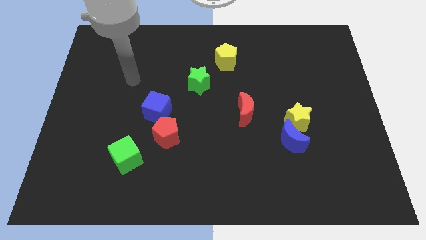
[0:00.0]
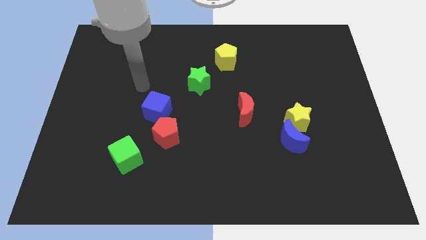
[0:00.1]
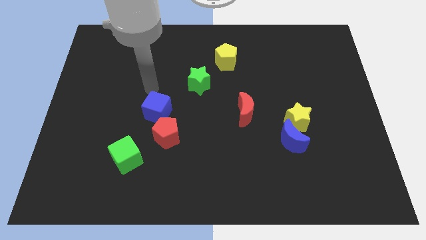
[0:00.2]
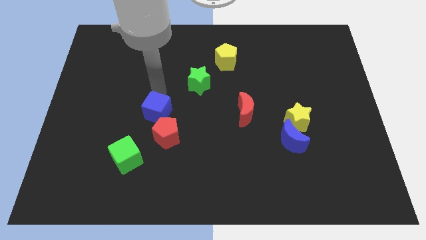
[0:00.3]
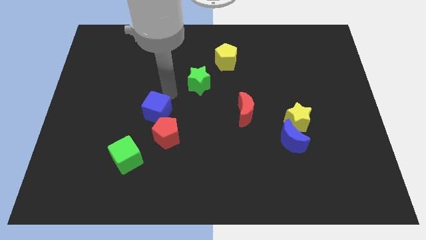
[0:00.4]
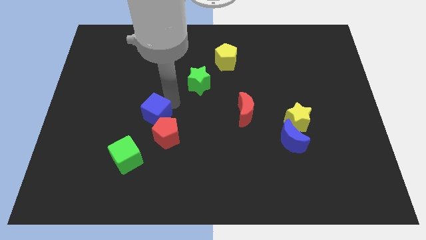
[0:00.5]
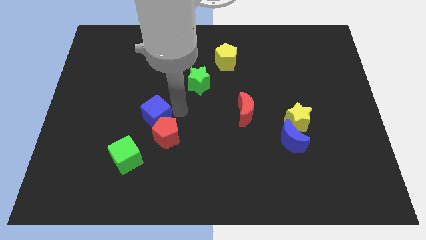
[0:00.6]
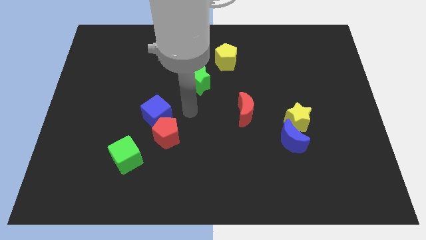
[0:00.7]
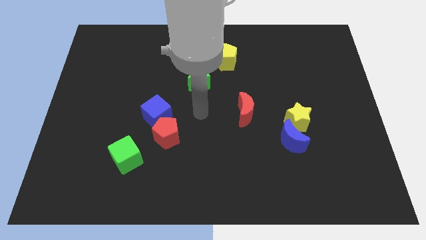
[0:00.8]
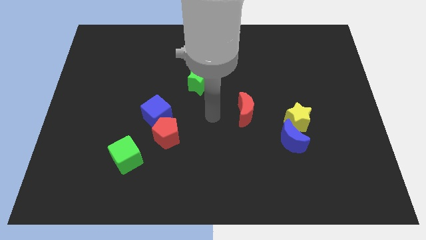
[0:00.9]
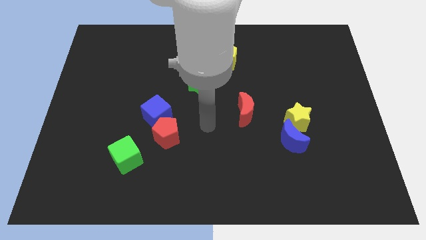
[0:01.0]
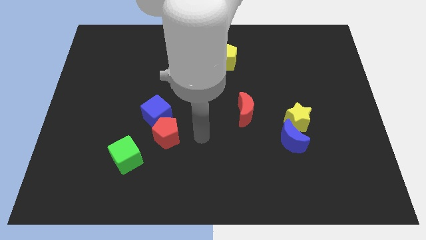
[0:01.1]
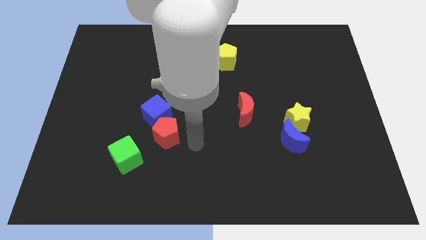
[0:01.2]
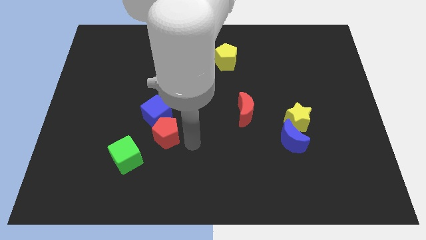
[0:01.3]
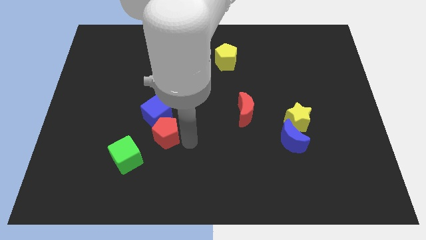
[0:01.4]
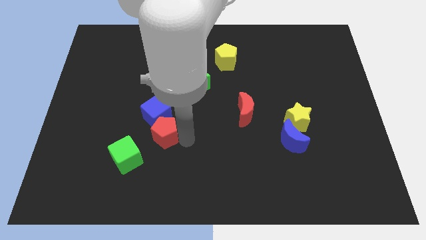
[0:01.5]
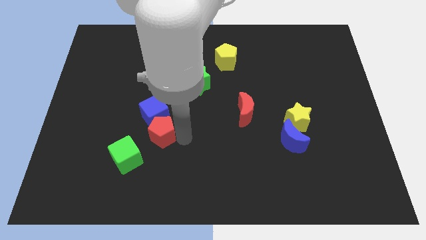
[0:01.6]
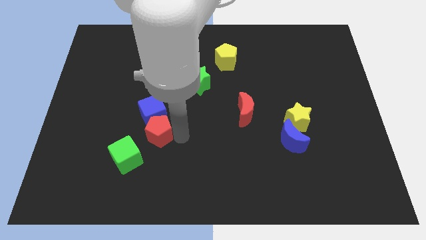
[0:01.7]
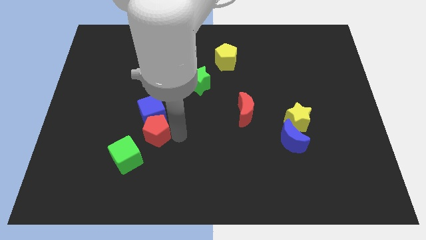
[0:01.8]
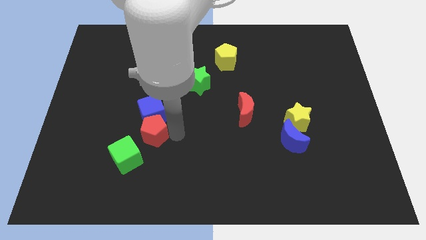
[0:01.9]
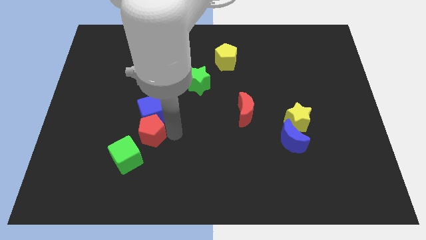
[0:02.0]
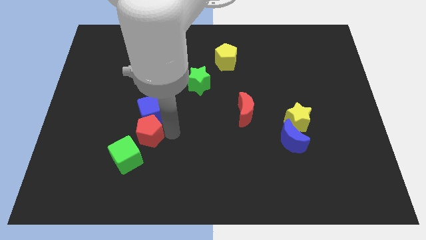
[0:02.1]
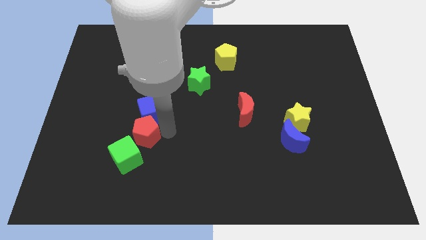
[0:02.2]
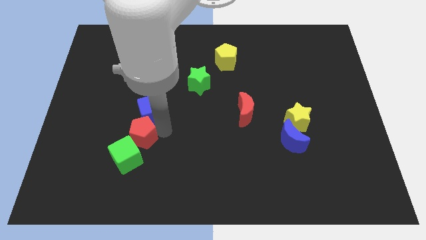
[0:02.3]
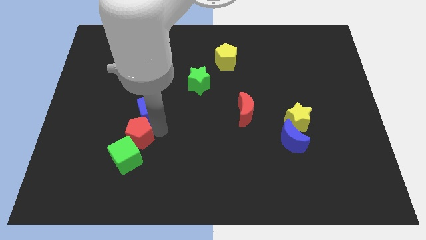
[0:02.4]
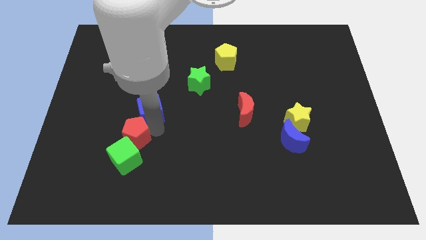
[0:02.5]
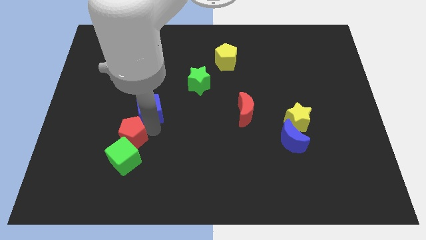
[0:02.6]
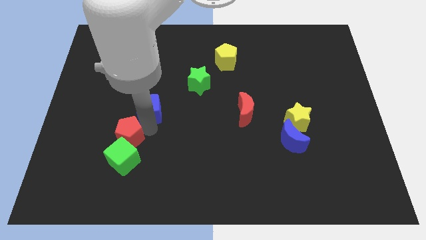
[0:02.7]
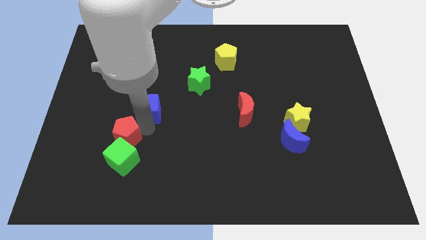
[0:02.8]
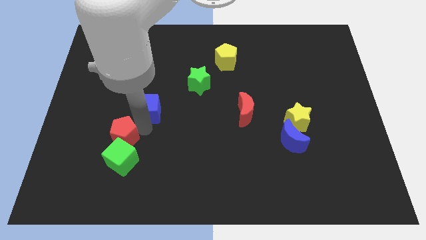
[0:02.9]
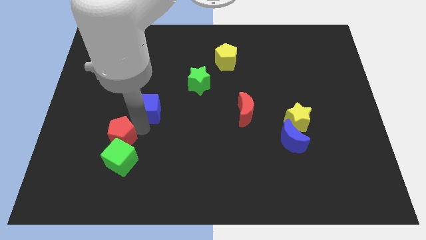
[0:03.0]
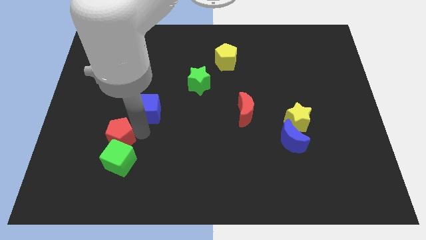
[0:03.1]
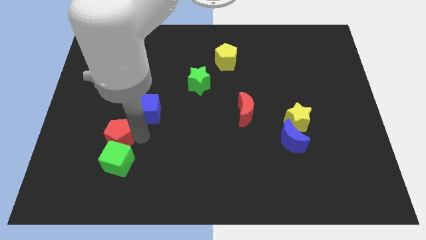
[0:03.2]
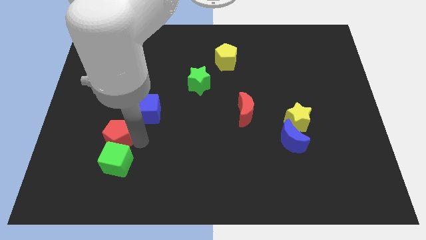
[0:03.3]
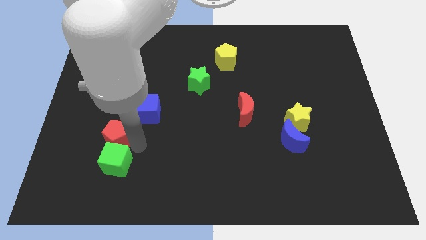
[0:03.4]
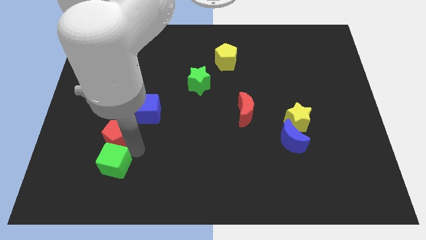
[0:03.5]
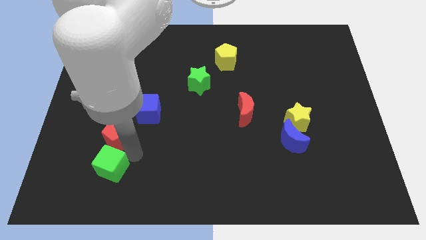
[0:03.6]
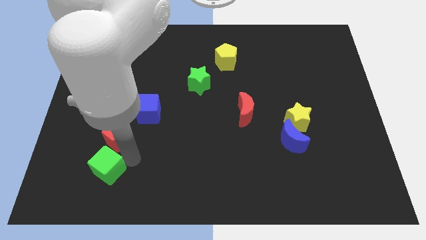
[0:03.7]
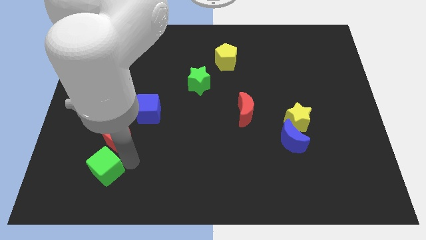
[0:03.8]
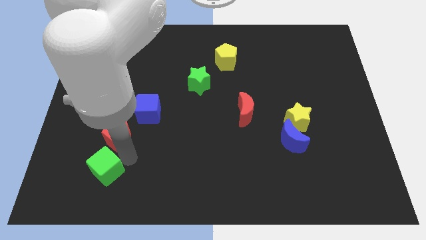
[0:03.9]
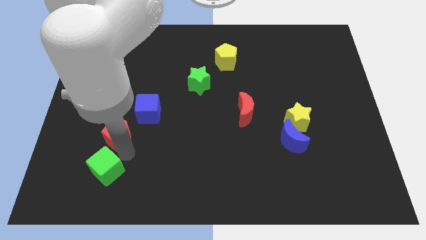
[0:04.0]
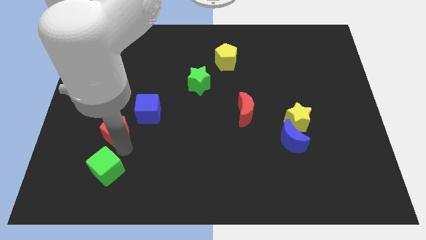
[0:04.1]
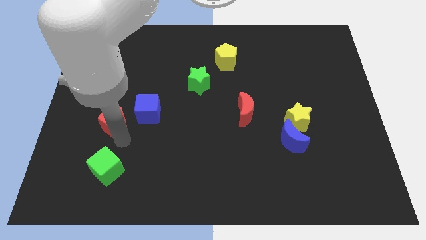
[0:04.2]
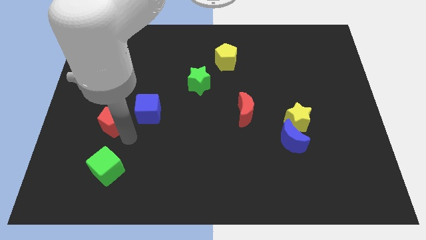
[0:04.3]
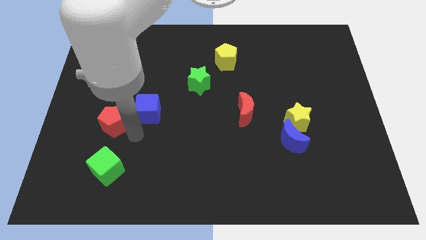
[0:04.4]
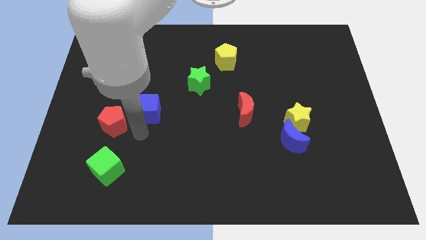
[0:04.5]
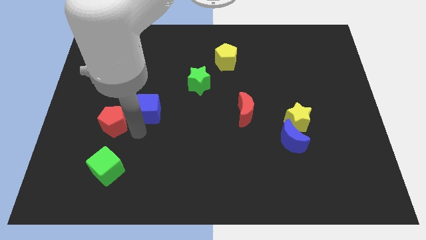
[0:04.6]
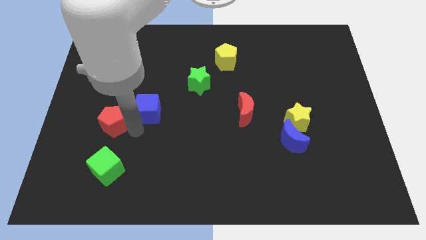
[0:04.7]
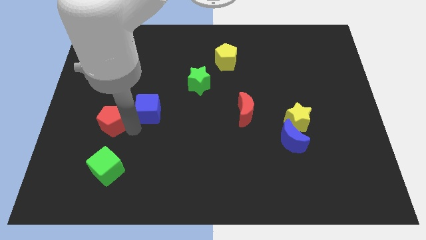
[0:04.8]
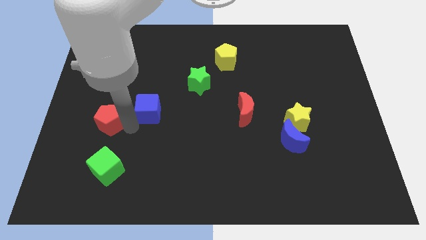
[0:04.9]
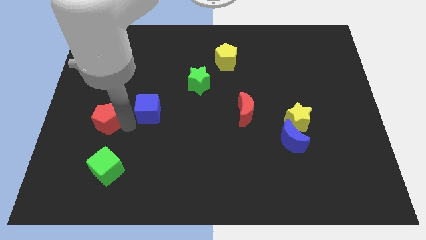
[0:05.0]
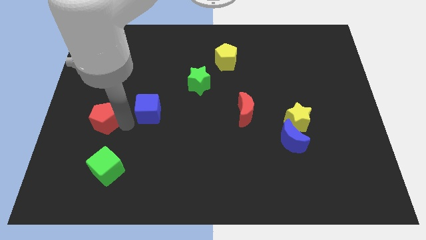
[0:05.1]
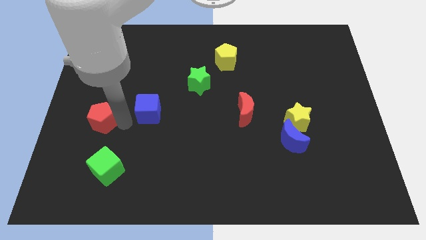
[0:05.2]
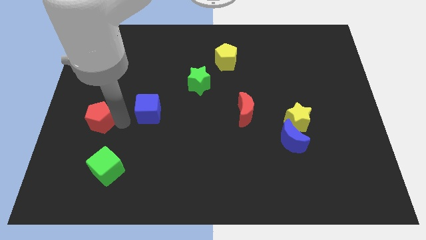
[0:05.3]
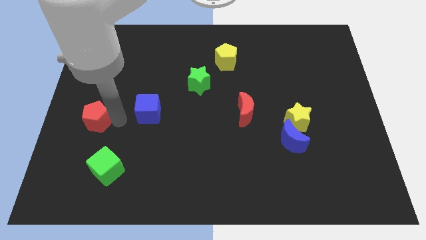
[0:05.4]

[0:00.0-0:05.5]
push the red pentagon to the center left

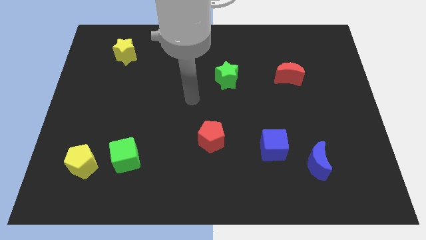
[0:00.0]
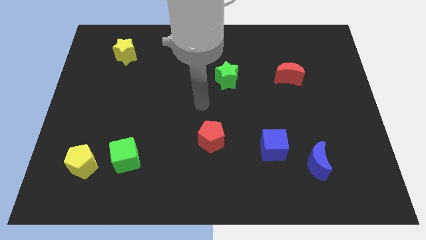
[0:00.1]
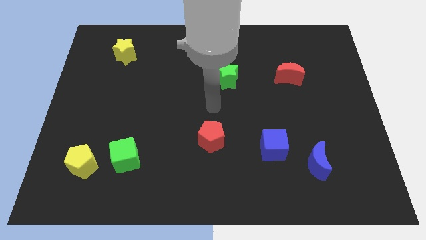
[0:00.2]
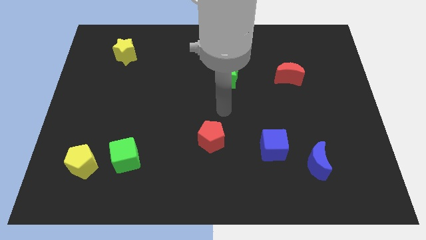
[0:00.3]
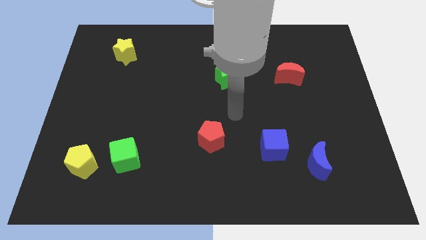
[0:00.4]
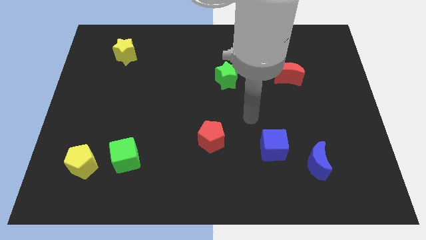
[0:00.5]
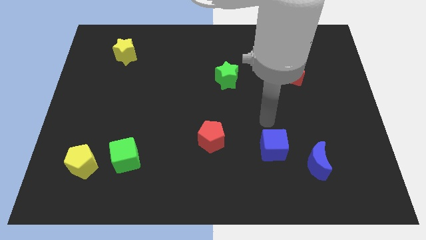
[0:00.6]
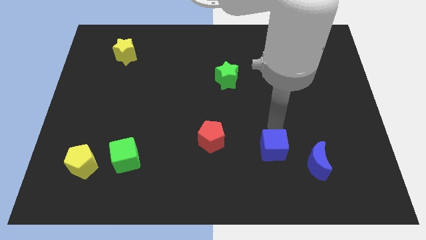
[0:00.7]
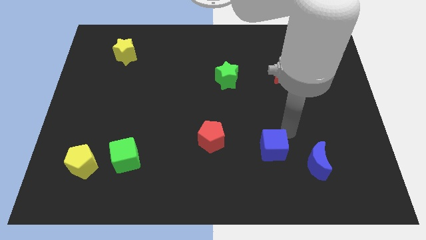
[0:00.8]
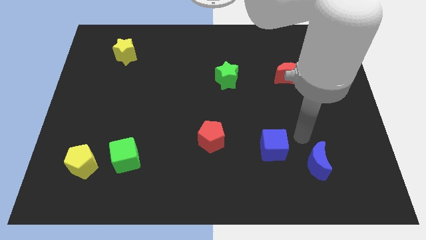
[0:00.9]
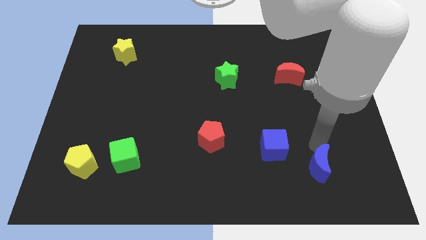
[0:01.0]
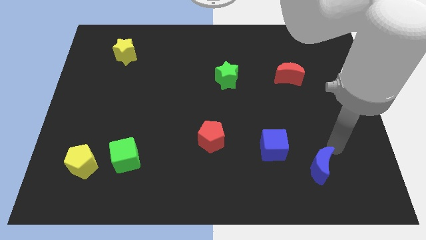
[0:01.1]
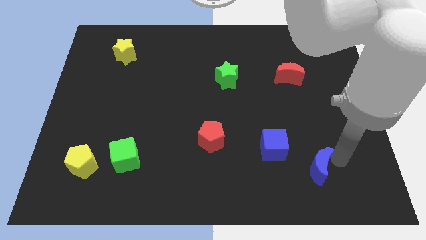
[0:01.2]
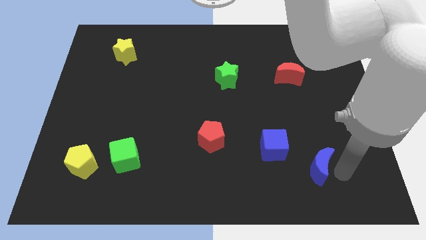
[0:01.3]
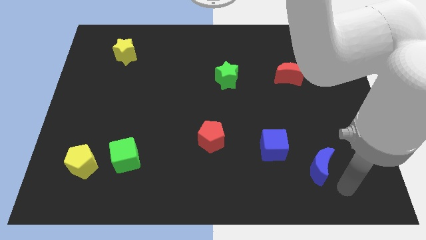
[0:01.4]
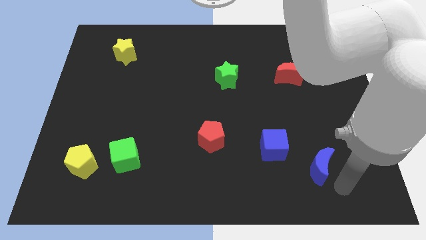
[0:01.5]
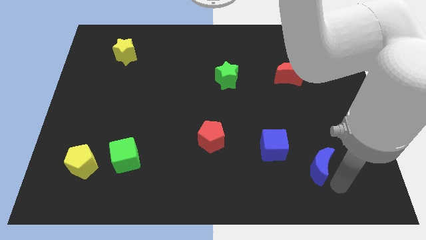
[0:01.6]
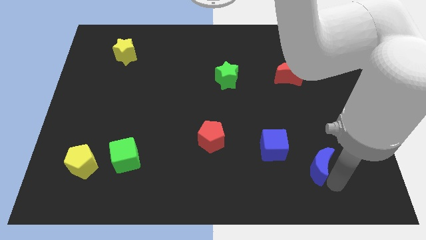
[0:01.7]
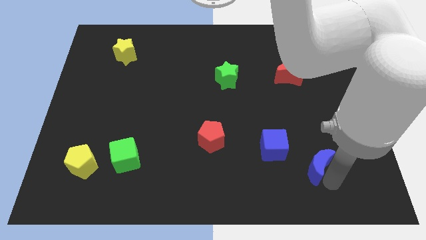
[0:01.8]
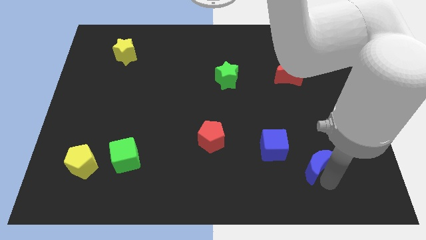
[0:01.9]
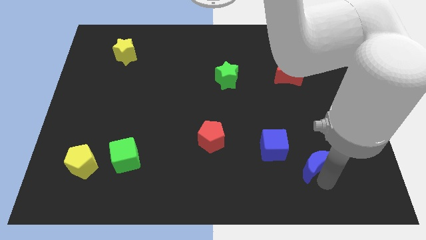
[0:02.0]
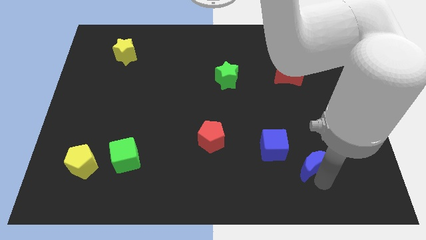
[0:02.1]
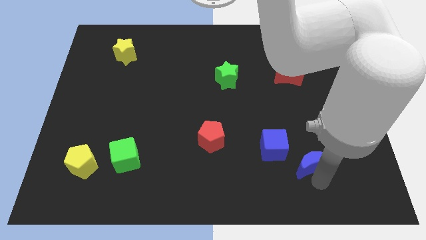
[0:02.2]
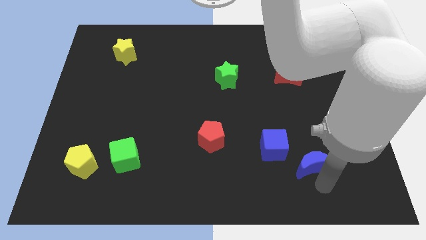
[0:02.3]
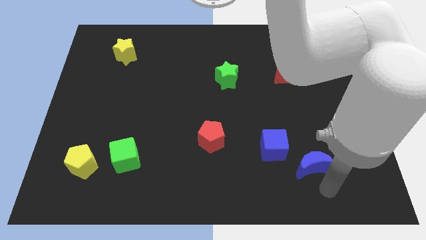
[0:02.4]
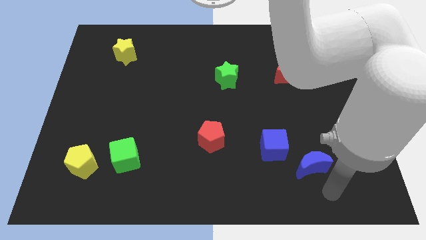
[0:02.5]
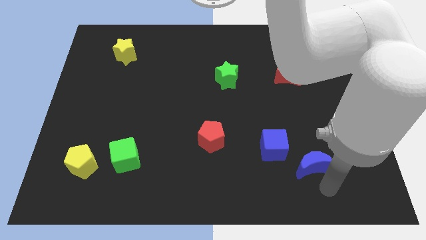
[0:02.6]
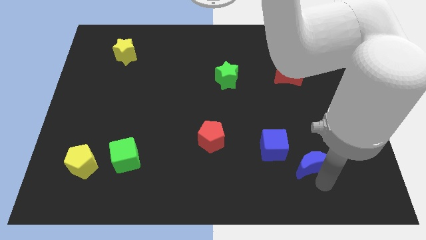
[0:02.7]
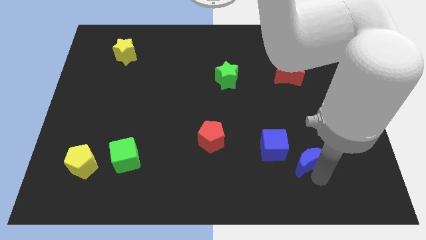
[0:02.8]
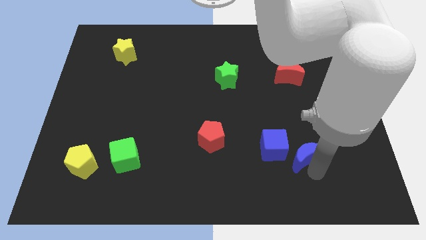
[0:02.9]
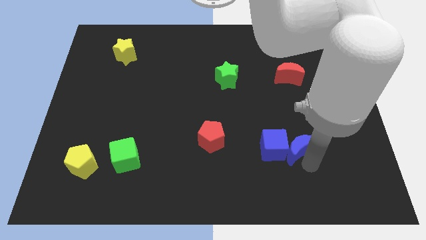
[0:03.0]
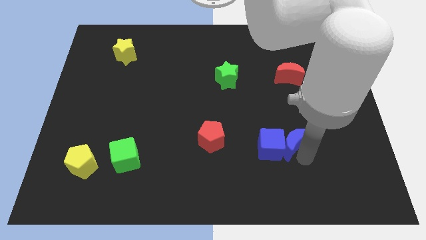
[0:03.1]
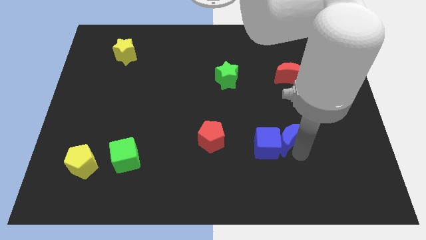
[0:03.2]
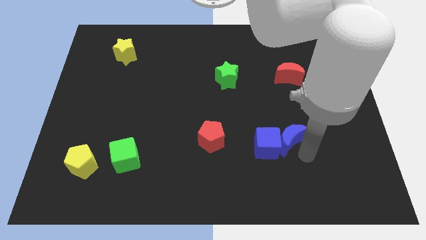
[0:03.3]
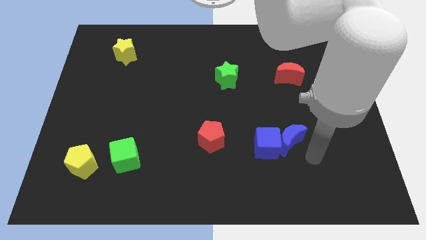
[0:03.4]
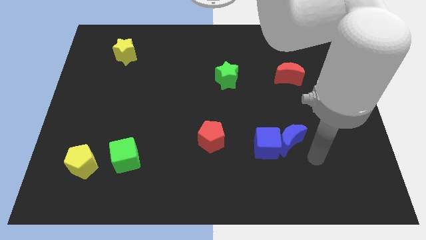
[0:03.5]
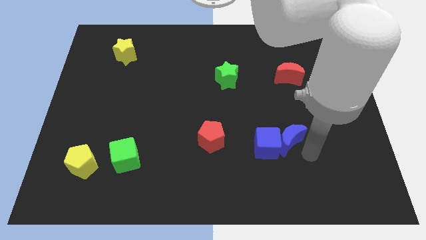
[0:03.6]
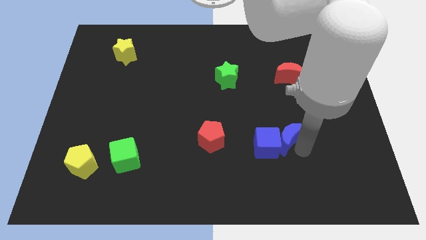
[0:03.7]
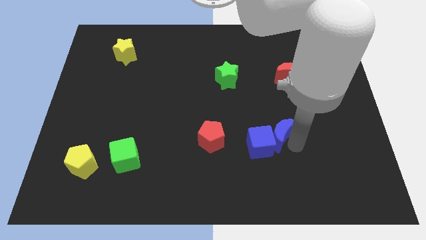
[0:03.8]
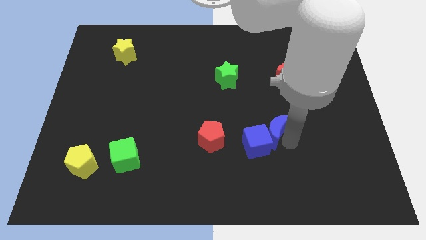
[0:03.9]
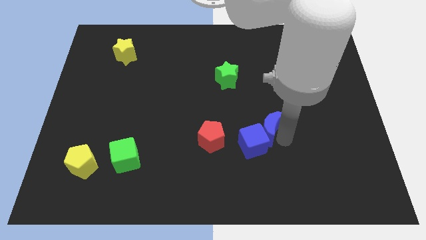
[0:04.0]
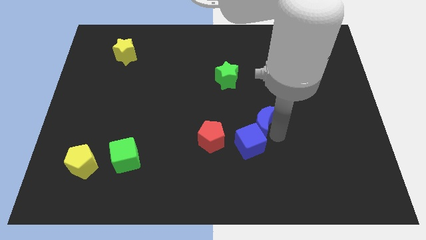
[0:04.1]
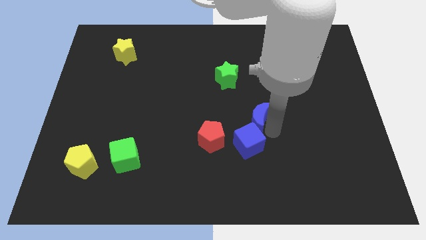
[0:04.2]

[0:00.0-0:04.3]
slide the blue moon to the center
